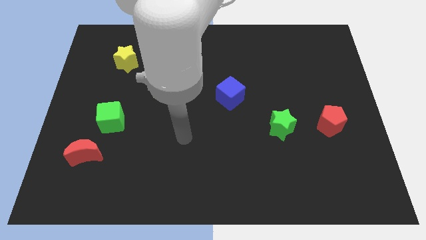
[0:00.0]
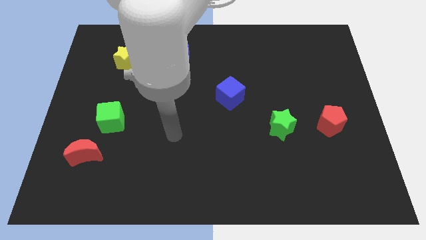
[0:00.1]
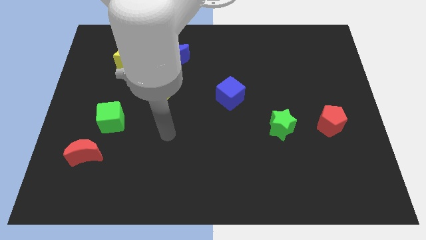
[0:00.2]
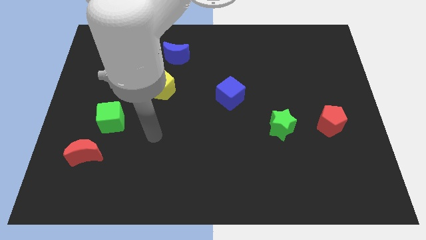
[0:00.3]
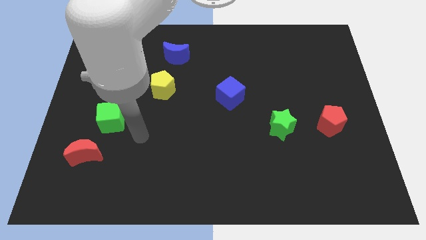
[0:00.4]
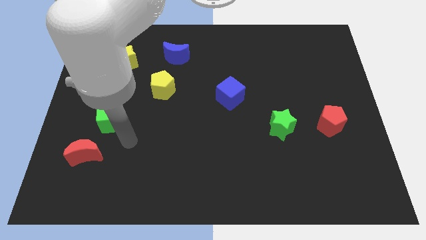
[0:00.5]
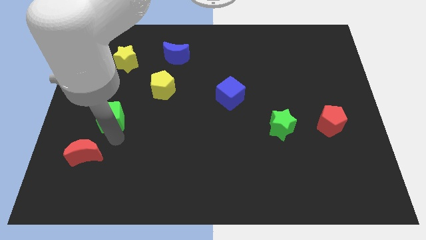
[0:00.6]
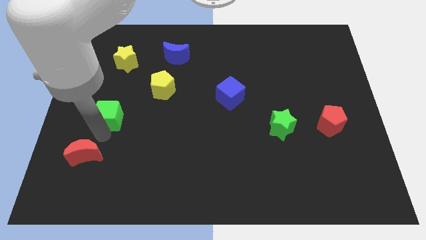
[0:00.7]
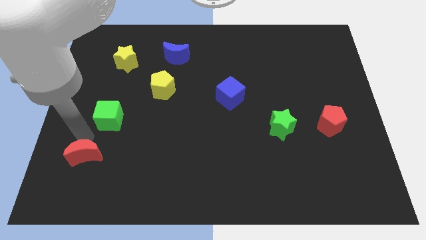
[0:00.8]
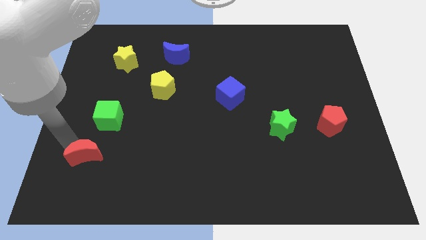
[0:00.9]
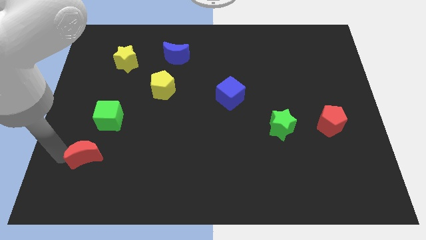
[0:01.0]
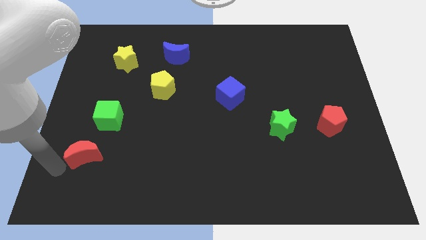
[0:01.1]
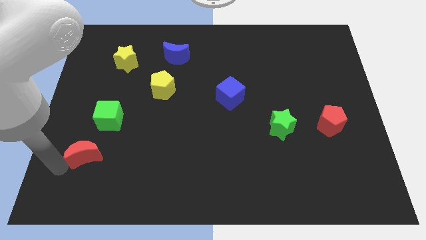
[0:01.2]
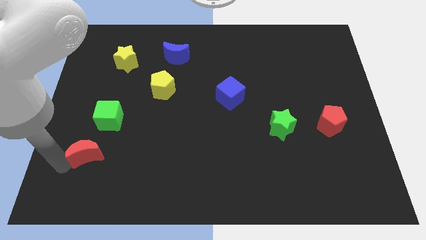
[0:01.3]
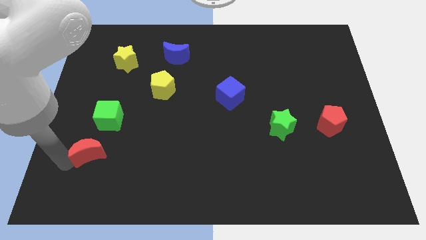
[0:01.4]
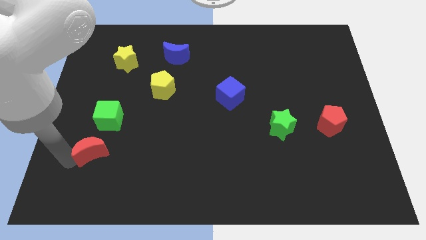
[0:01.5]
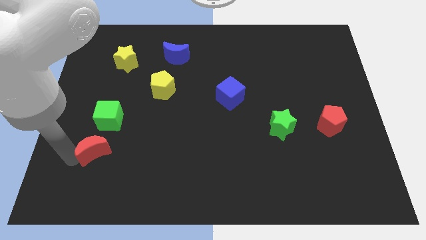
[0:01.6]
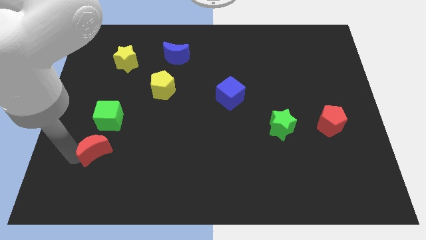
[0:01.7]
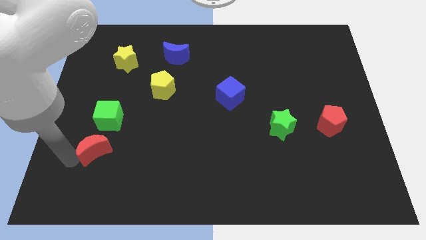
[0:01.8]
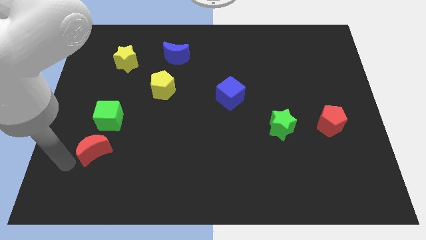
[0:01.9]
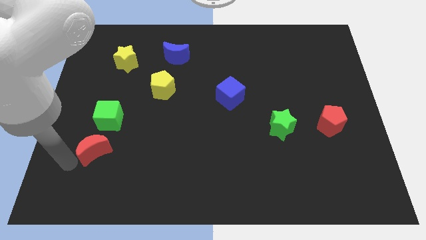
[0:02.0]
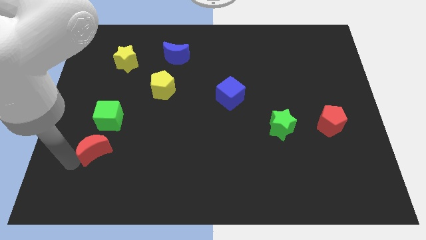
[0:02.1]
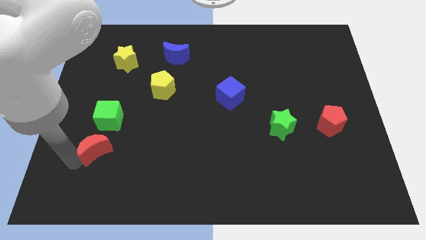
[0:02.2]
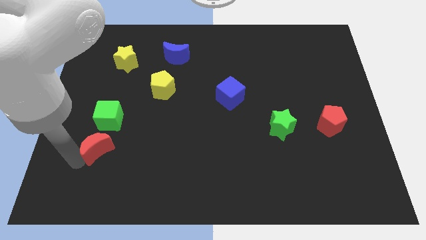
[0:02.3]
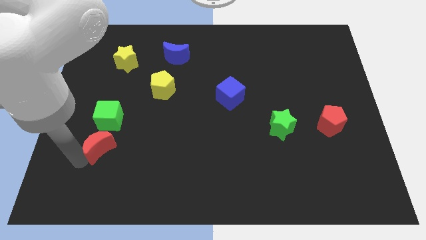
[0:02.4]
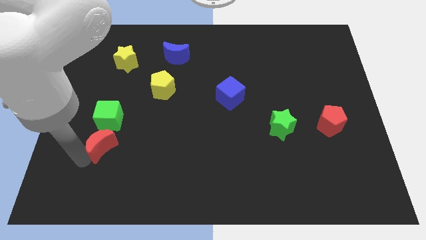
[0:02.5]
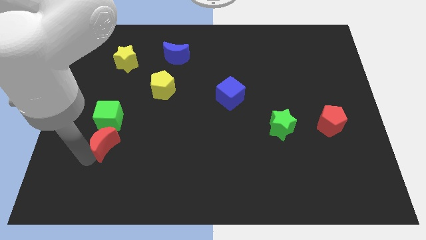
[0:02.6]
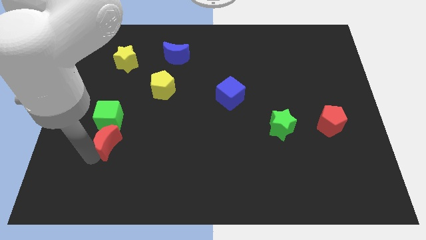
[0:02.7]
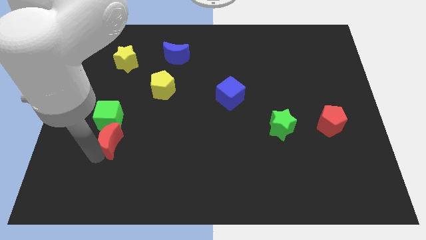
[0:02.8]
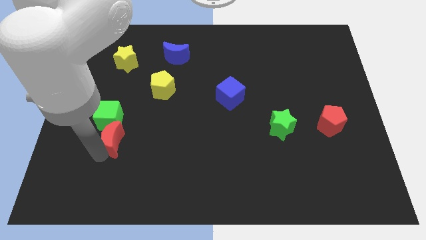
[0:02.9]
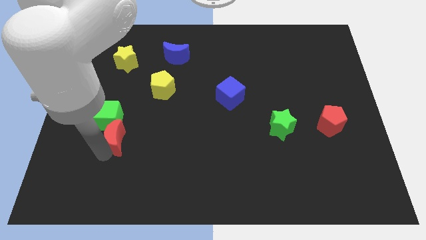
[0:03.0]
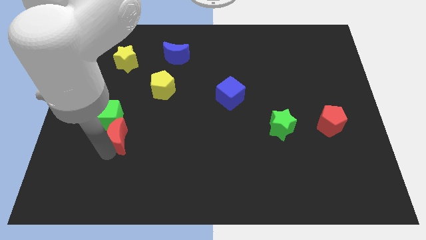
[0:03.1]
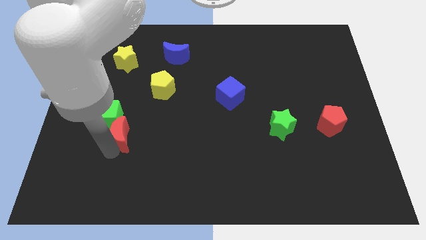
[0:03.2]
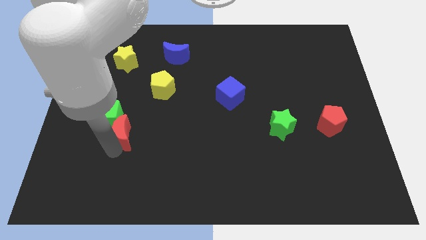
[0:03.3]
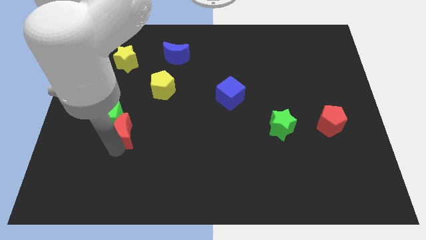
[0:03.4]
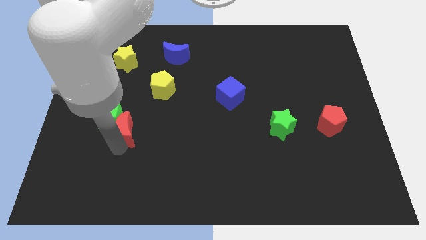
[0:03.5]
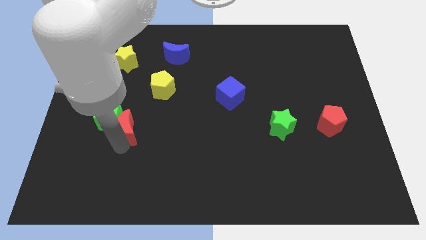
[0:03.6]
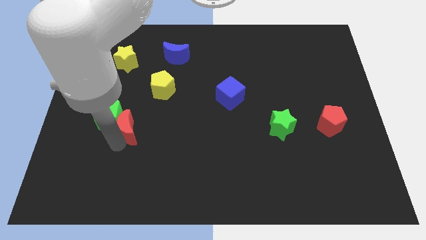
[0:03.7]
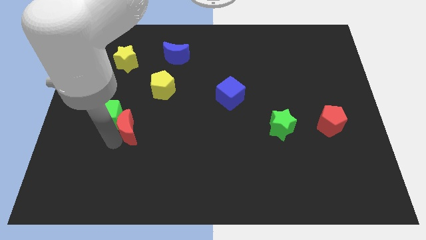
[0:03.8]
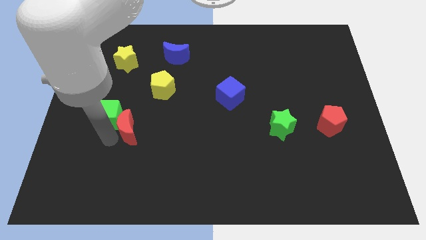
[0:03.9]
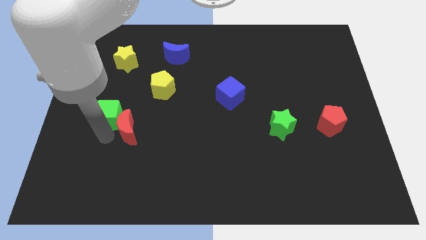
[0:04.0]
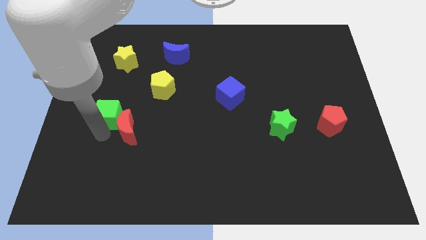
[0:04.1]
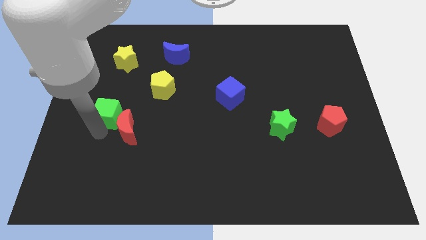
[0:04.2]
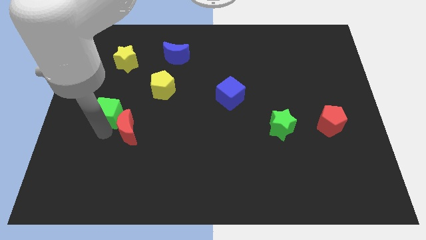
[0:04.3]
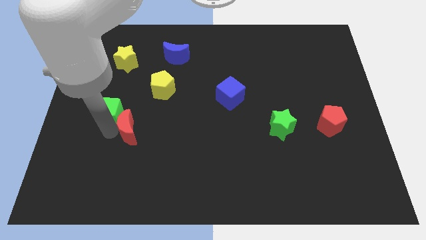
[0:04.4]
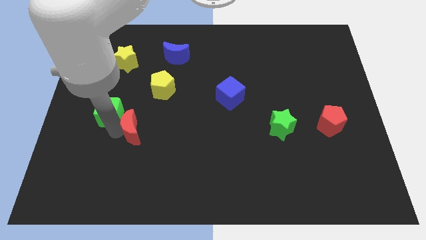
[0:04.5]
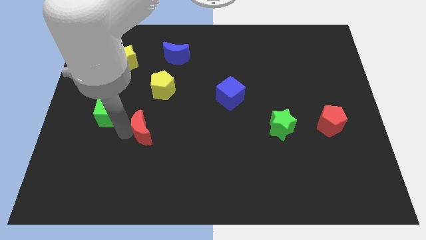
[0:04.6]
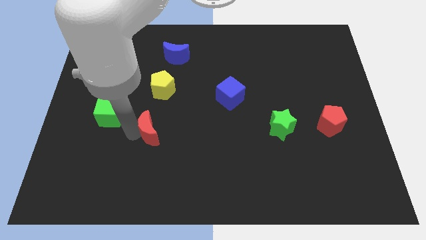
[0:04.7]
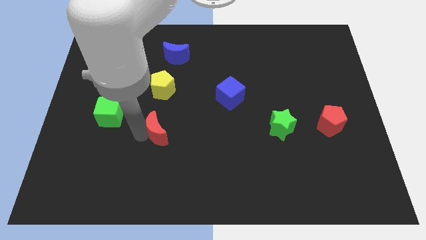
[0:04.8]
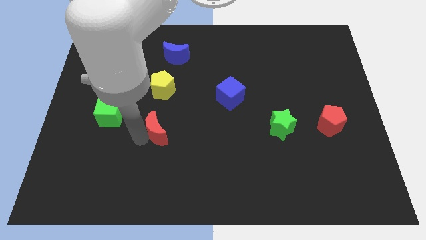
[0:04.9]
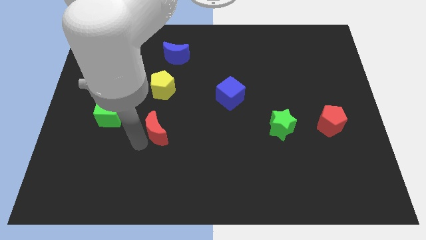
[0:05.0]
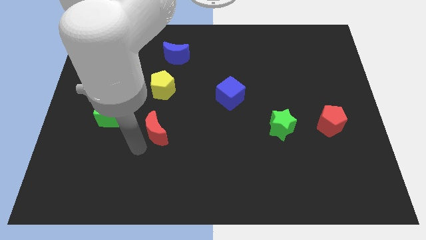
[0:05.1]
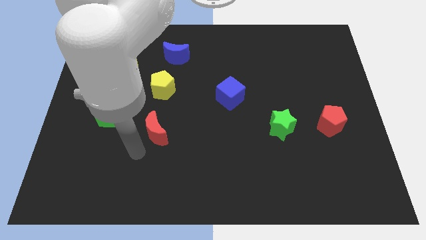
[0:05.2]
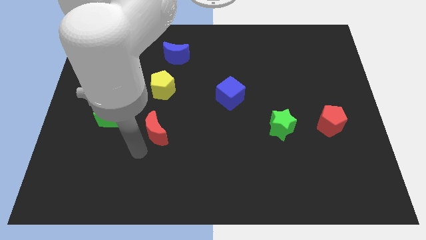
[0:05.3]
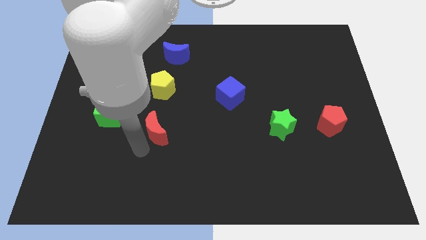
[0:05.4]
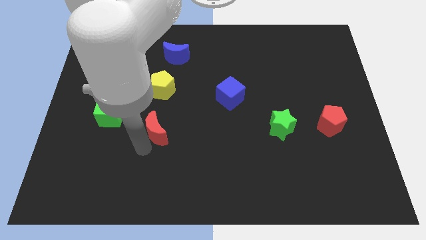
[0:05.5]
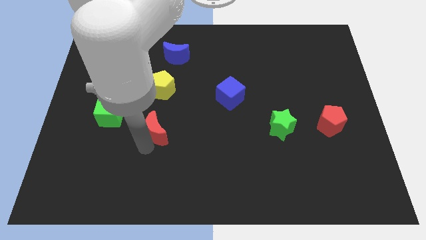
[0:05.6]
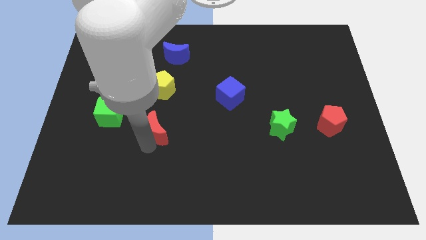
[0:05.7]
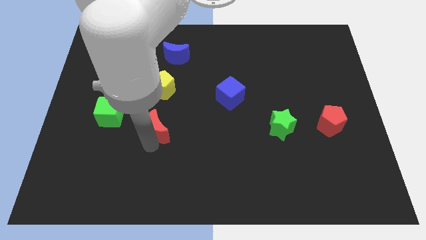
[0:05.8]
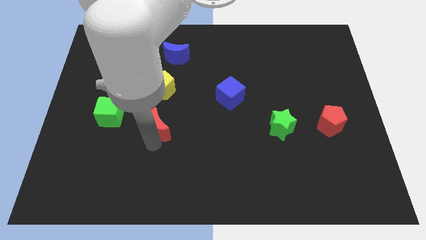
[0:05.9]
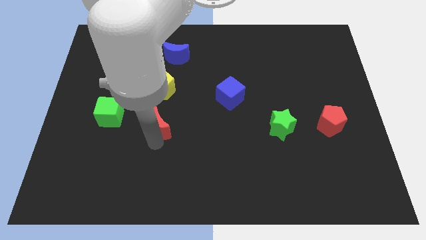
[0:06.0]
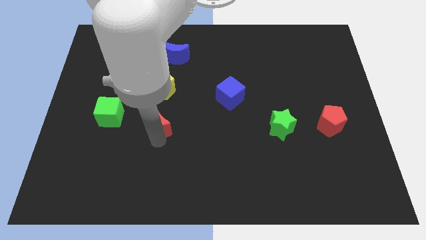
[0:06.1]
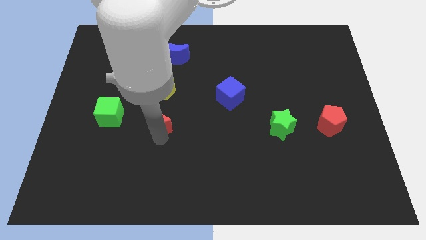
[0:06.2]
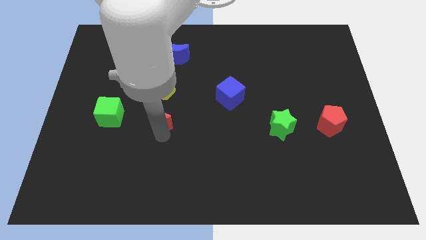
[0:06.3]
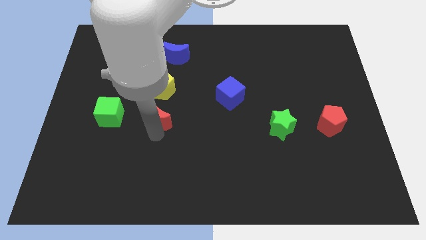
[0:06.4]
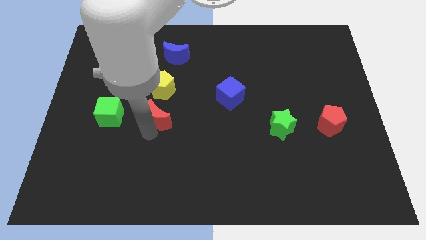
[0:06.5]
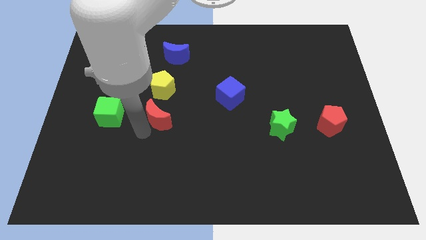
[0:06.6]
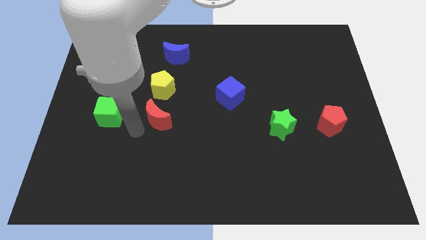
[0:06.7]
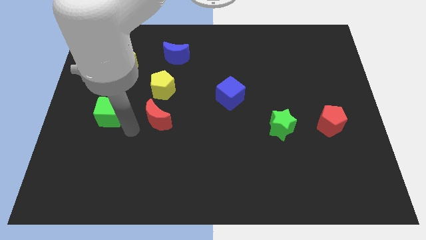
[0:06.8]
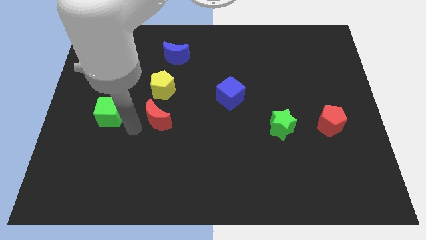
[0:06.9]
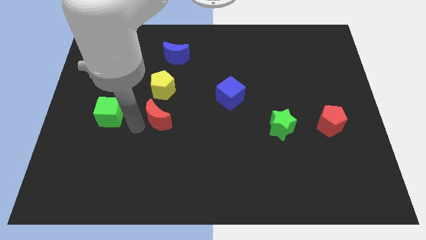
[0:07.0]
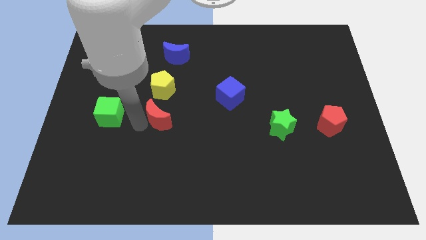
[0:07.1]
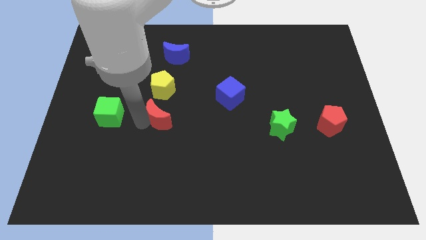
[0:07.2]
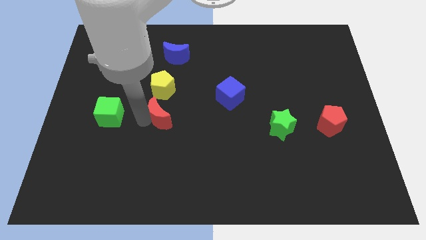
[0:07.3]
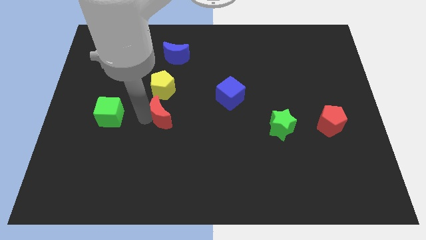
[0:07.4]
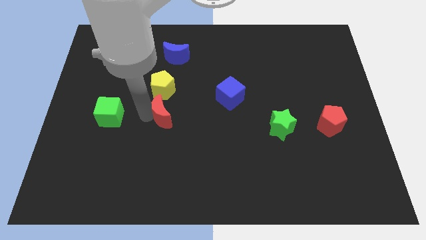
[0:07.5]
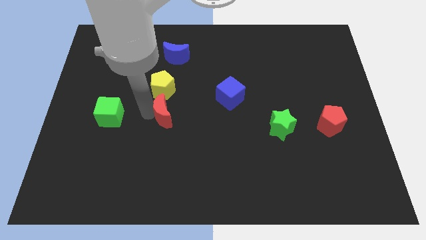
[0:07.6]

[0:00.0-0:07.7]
slide the red moon to the middle of the board
